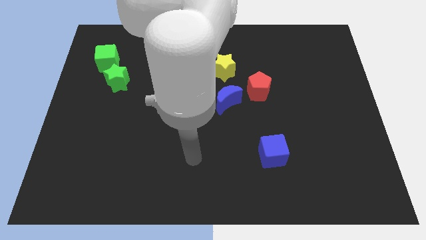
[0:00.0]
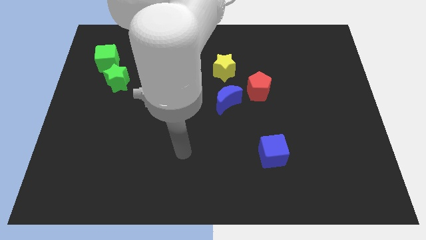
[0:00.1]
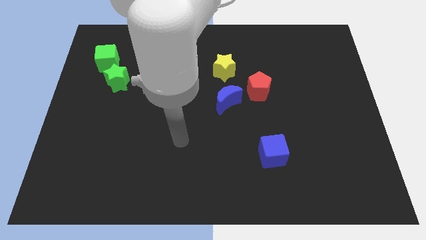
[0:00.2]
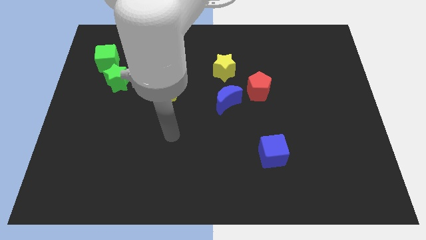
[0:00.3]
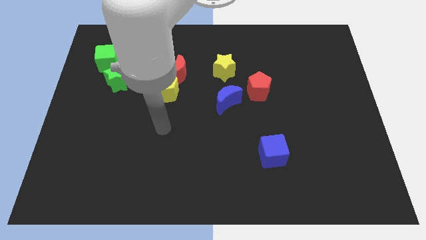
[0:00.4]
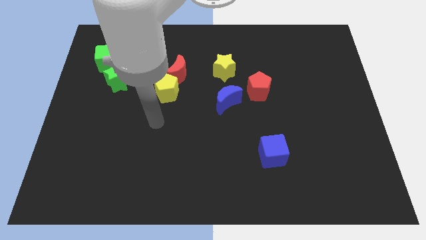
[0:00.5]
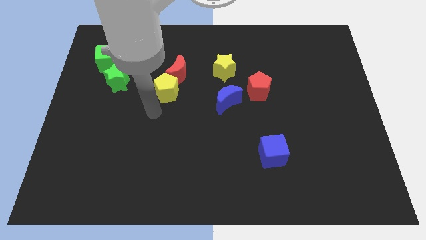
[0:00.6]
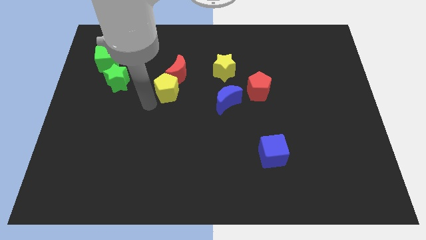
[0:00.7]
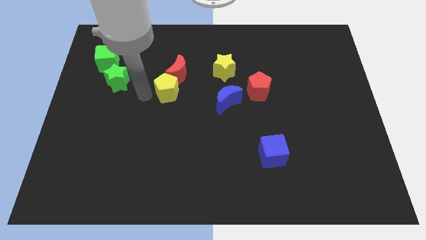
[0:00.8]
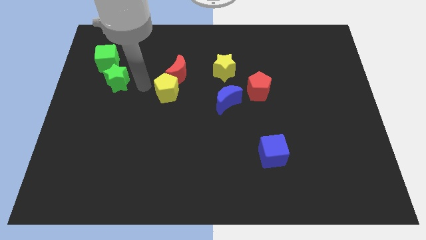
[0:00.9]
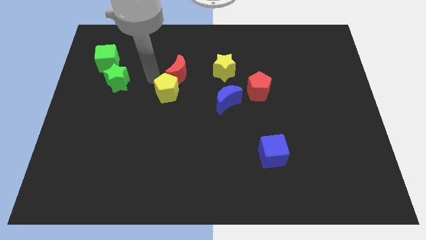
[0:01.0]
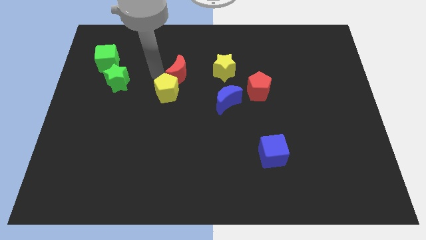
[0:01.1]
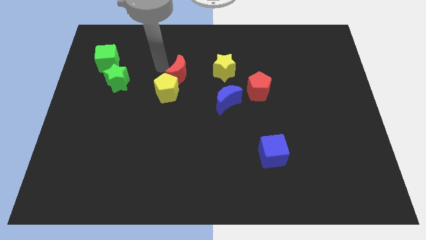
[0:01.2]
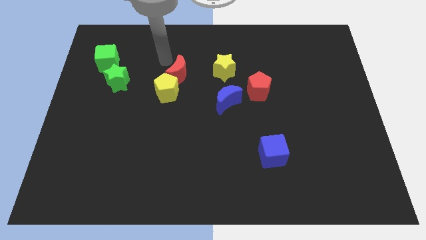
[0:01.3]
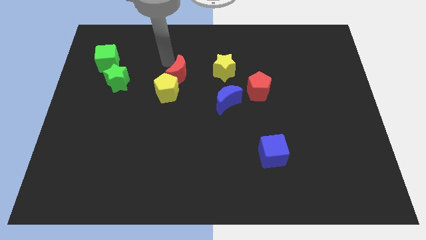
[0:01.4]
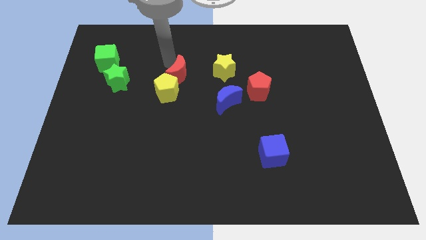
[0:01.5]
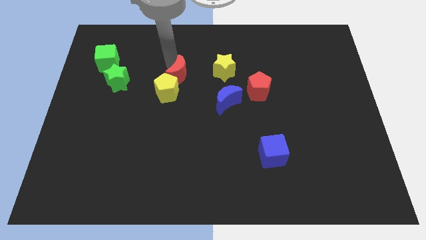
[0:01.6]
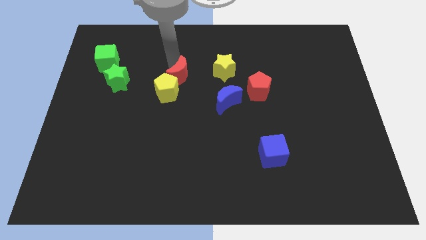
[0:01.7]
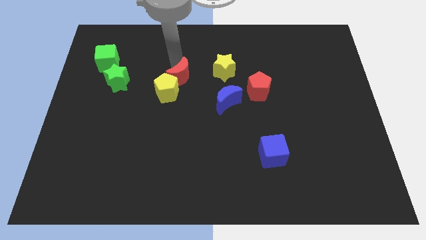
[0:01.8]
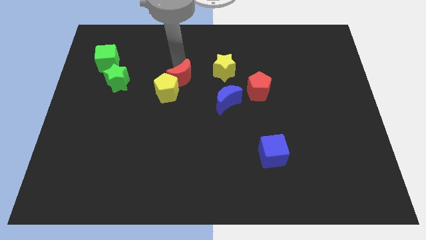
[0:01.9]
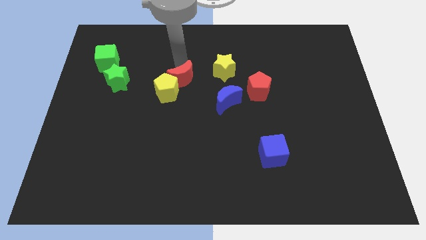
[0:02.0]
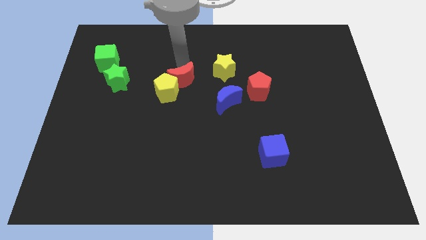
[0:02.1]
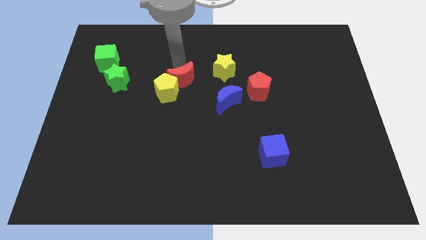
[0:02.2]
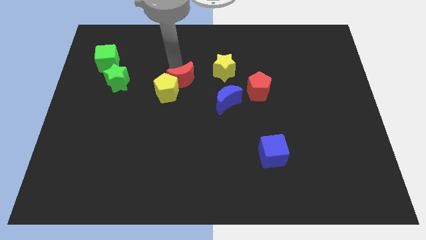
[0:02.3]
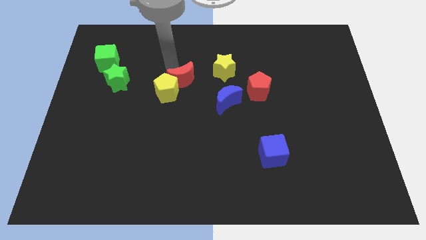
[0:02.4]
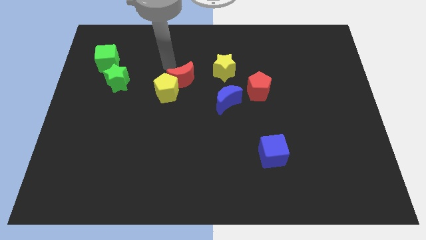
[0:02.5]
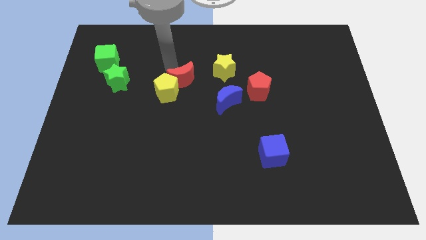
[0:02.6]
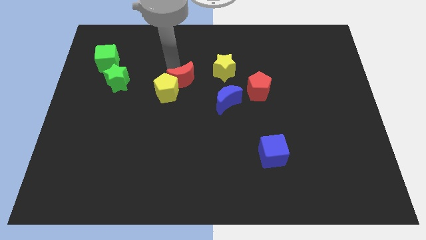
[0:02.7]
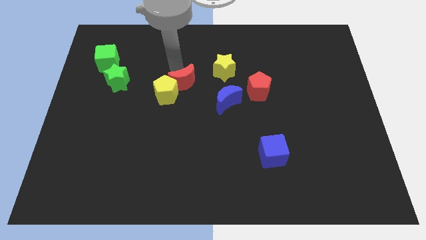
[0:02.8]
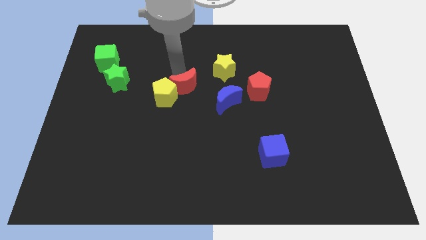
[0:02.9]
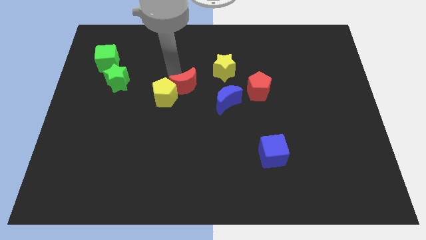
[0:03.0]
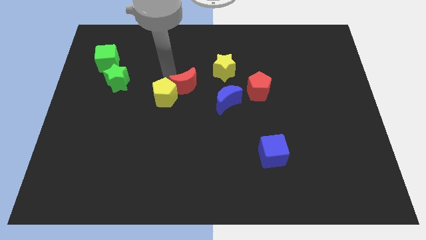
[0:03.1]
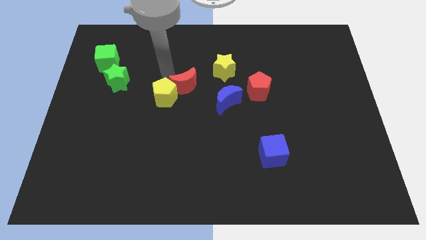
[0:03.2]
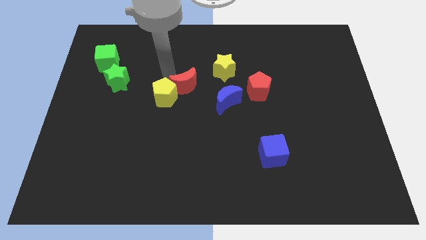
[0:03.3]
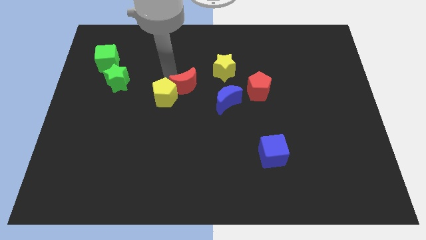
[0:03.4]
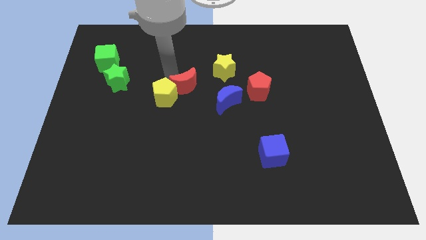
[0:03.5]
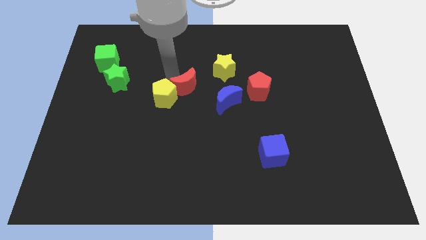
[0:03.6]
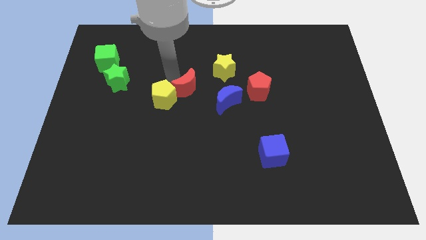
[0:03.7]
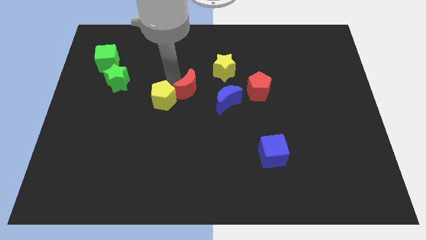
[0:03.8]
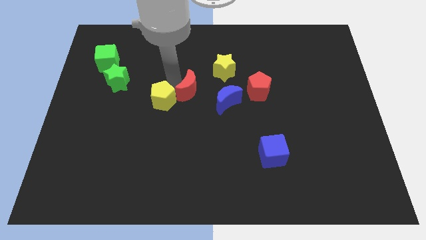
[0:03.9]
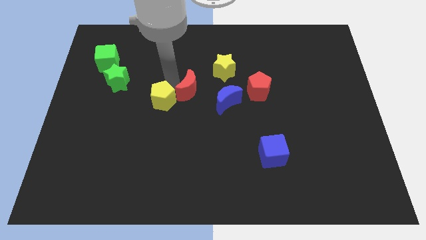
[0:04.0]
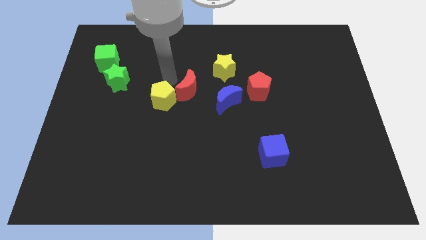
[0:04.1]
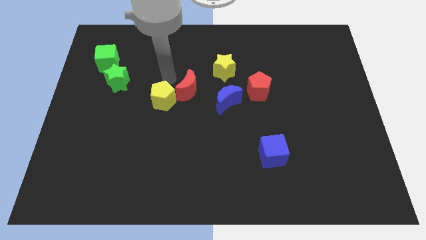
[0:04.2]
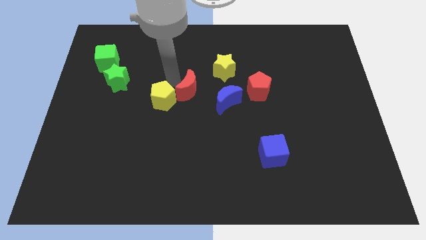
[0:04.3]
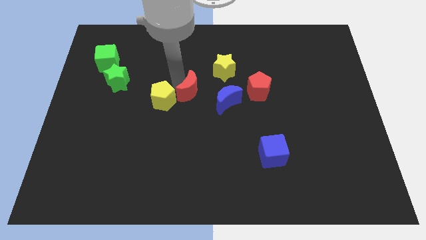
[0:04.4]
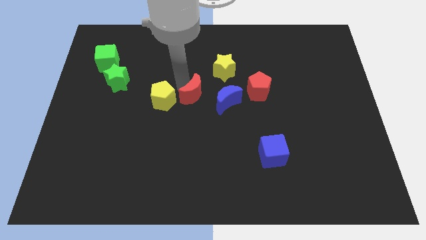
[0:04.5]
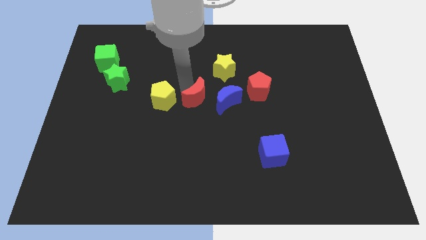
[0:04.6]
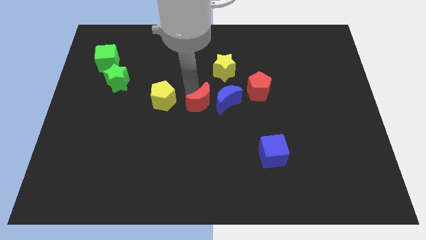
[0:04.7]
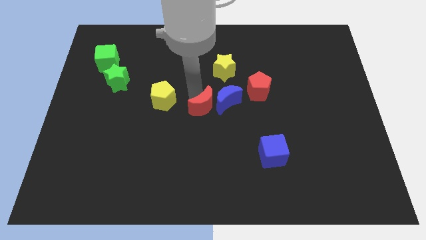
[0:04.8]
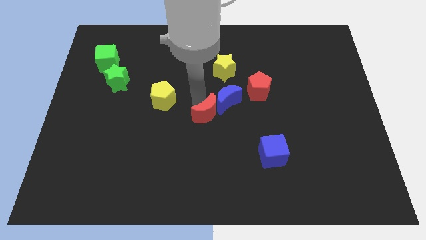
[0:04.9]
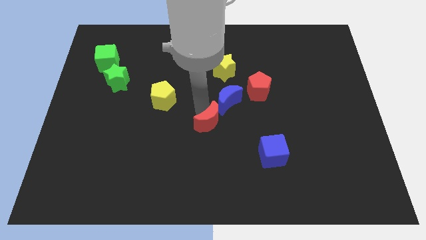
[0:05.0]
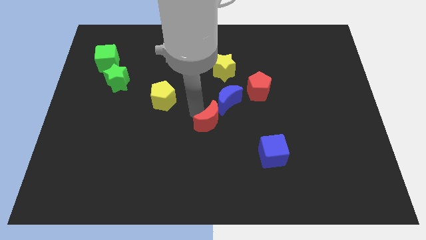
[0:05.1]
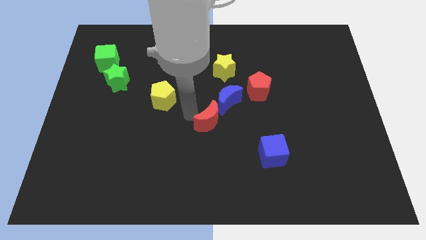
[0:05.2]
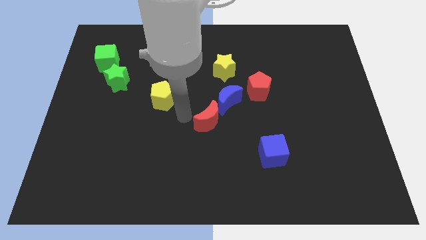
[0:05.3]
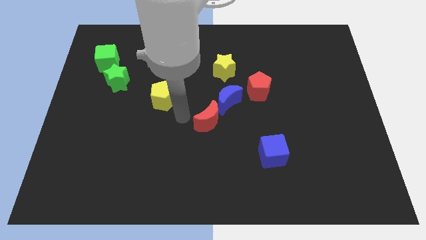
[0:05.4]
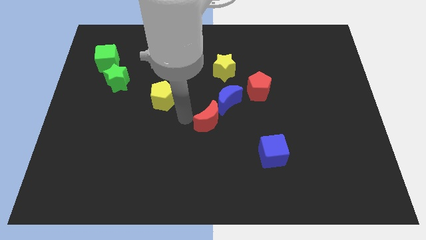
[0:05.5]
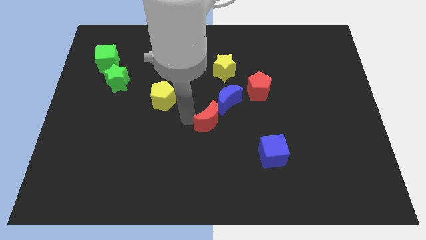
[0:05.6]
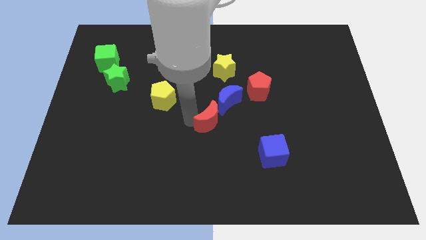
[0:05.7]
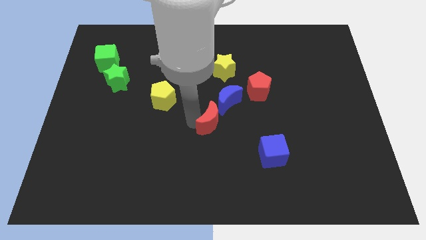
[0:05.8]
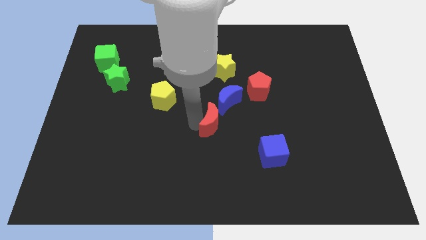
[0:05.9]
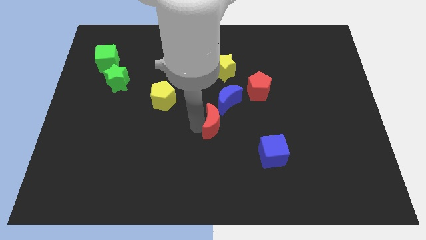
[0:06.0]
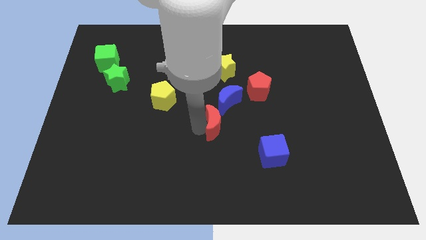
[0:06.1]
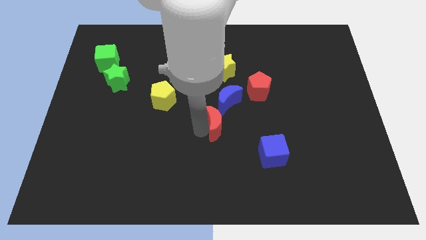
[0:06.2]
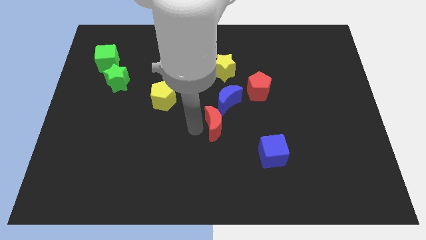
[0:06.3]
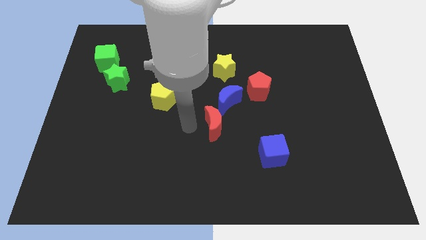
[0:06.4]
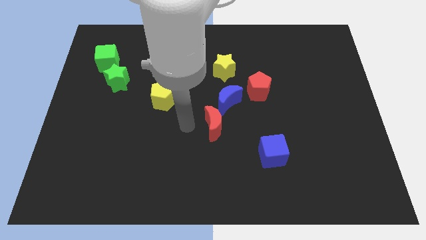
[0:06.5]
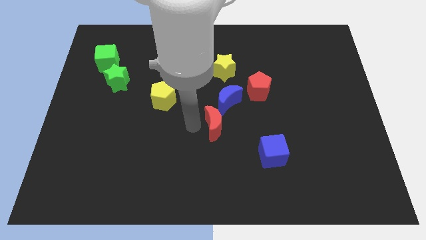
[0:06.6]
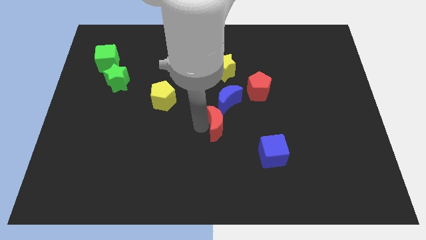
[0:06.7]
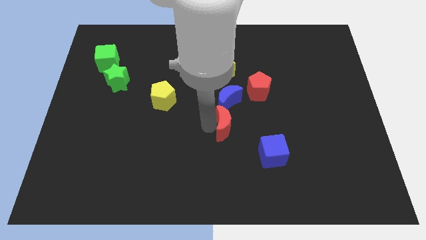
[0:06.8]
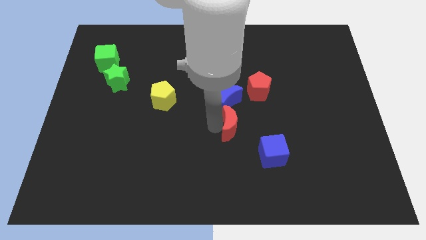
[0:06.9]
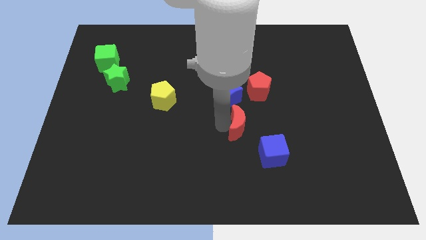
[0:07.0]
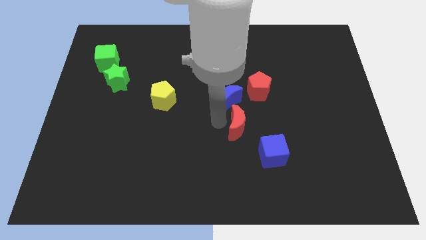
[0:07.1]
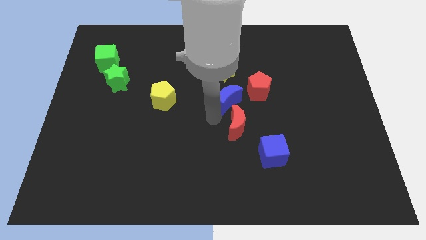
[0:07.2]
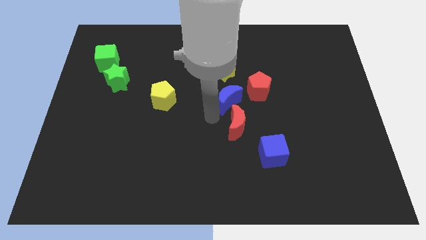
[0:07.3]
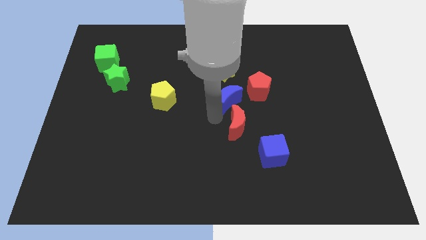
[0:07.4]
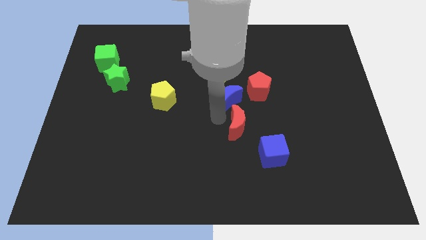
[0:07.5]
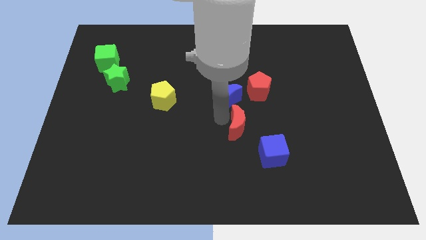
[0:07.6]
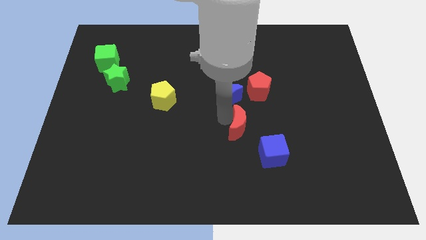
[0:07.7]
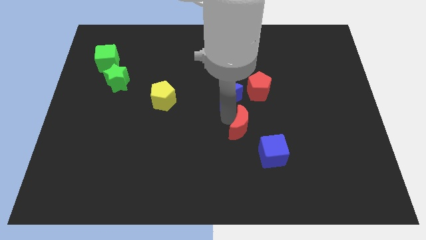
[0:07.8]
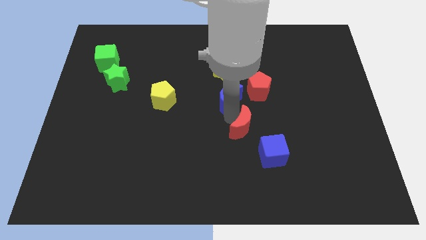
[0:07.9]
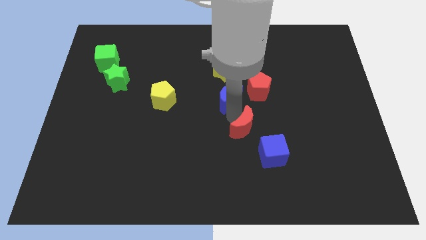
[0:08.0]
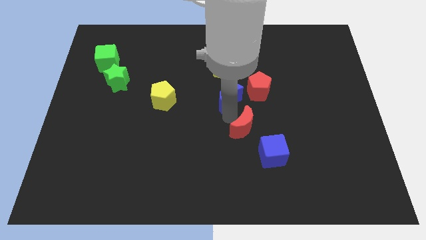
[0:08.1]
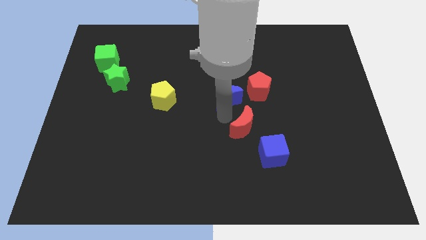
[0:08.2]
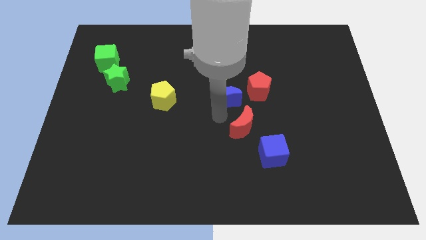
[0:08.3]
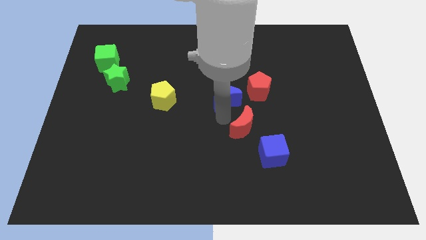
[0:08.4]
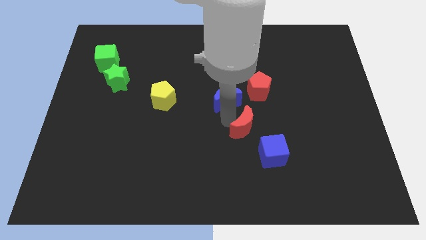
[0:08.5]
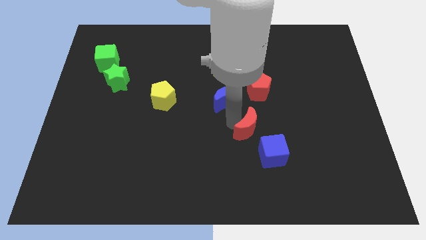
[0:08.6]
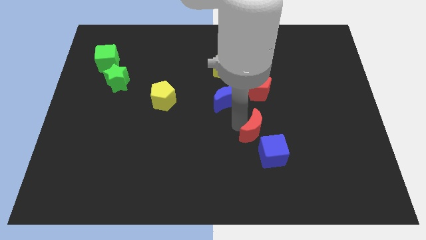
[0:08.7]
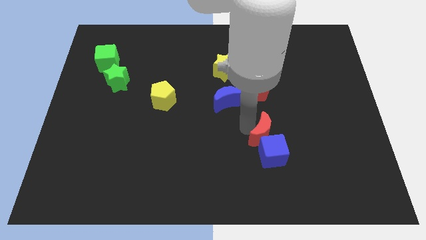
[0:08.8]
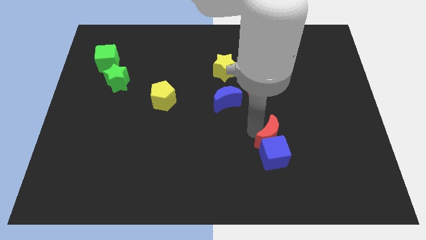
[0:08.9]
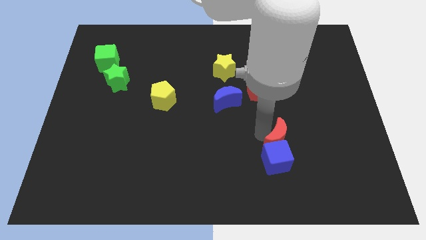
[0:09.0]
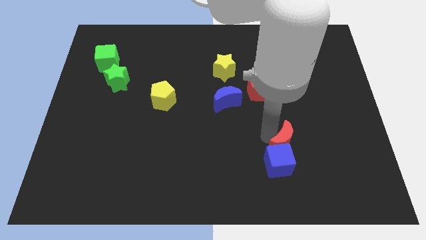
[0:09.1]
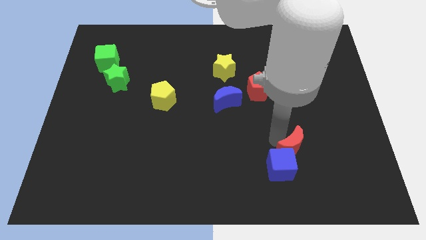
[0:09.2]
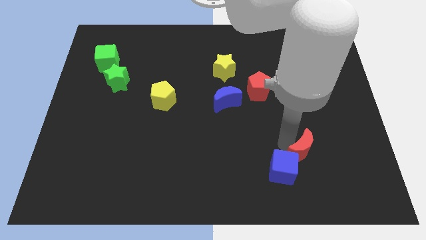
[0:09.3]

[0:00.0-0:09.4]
put the red moon just right of the blue cube
